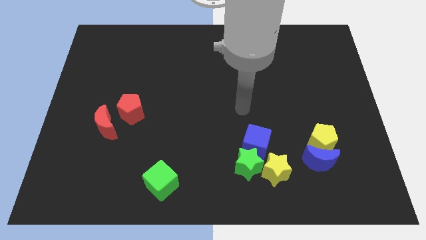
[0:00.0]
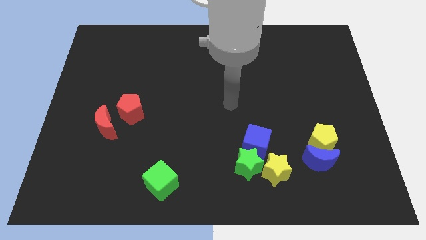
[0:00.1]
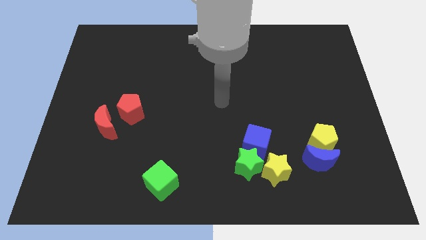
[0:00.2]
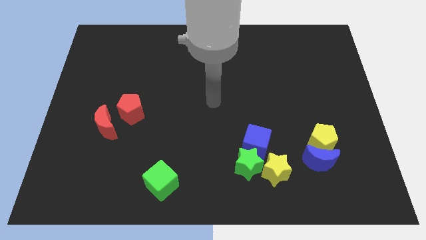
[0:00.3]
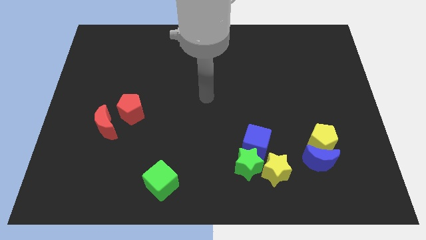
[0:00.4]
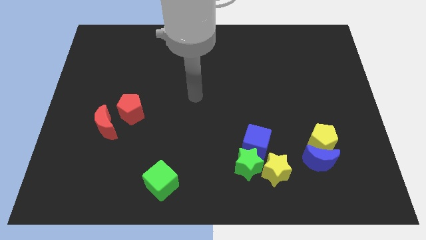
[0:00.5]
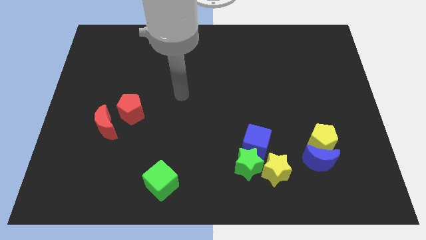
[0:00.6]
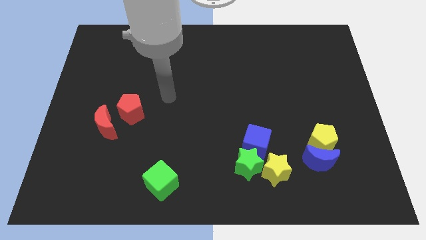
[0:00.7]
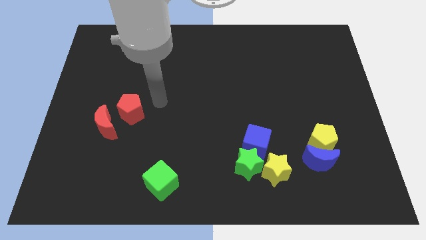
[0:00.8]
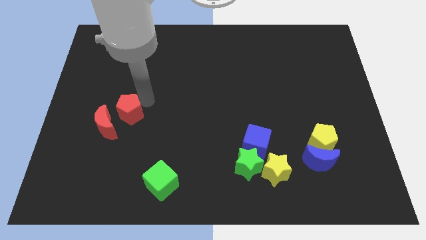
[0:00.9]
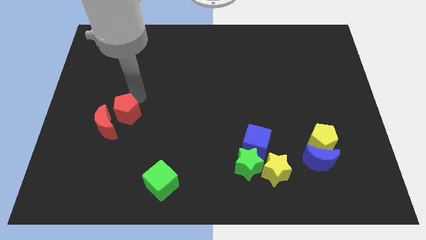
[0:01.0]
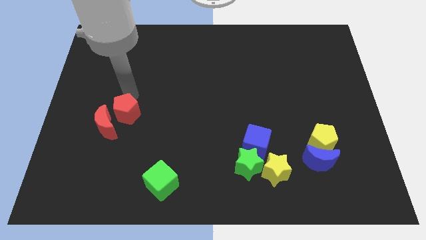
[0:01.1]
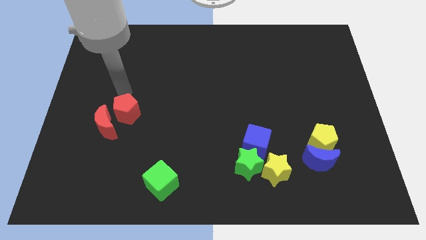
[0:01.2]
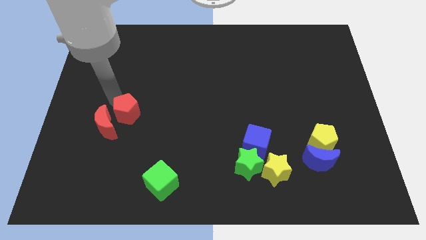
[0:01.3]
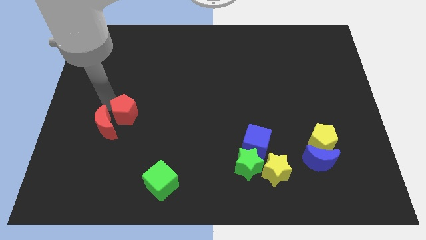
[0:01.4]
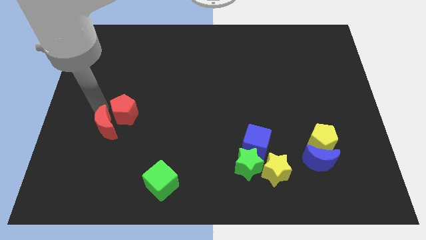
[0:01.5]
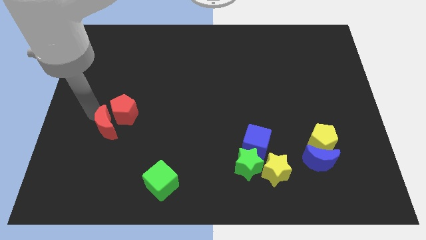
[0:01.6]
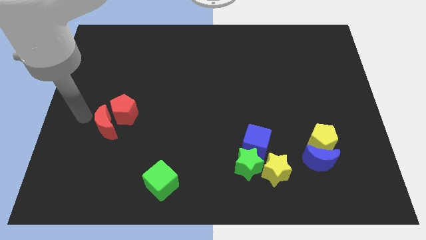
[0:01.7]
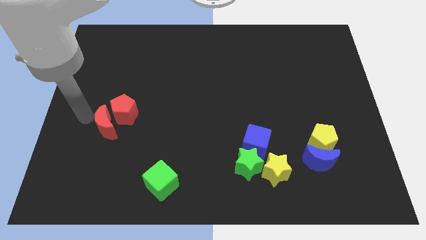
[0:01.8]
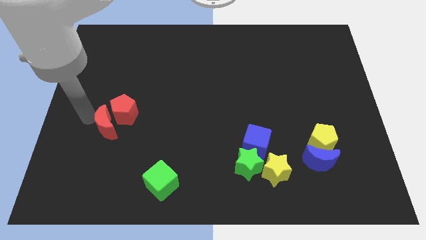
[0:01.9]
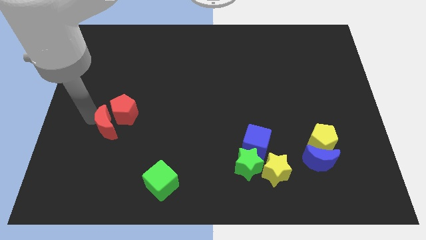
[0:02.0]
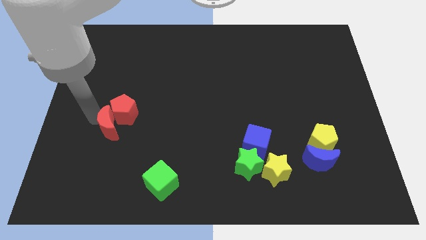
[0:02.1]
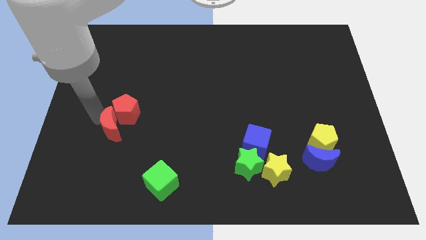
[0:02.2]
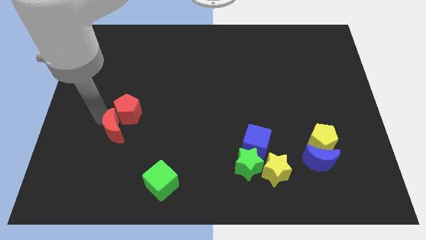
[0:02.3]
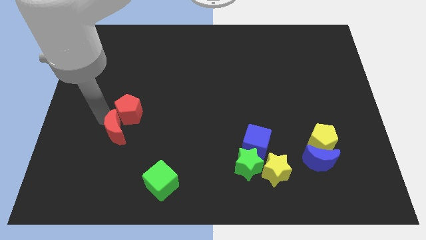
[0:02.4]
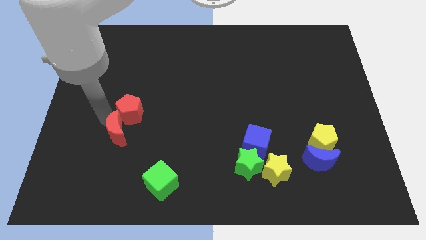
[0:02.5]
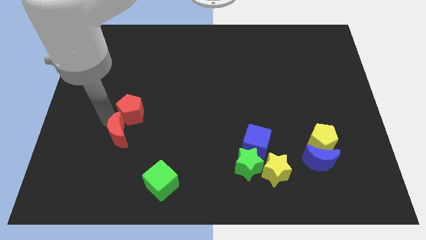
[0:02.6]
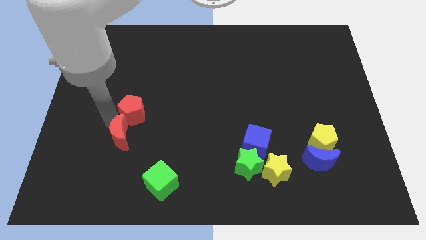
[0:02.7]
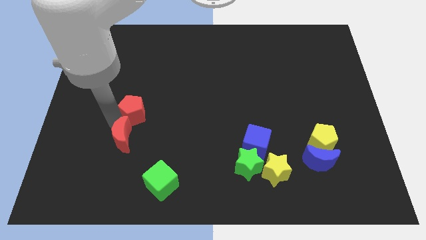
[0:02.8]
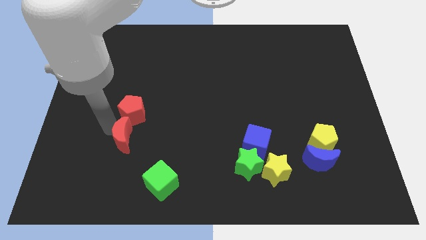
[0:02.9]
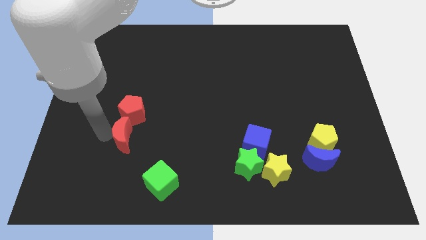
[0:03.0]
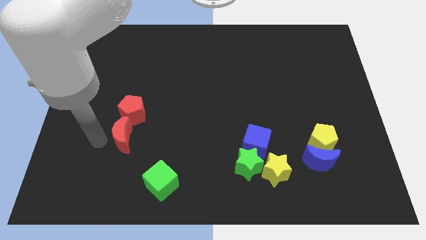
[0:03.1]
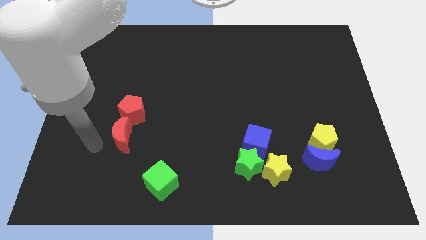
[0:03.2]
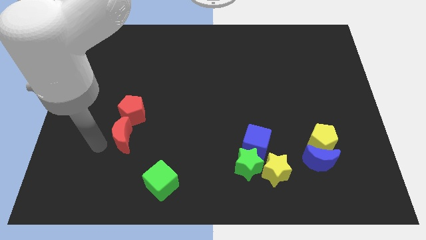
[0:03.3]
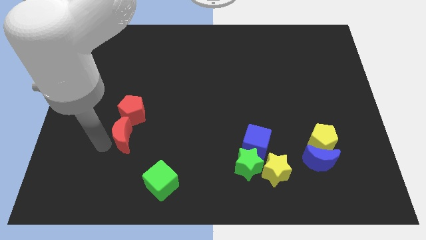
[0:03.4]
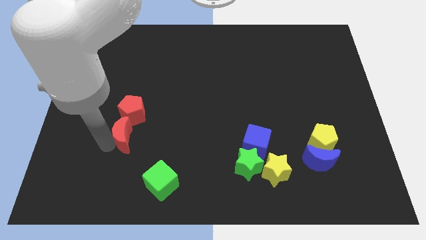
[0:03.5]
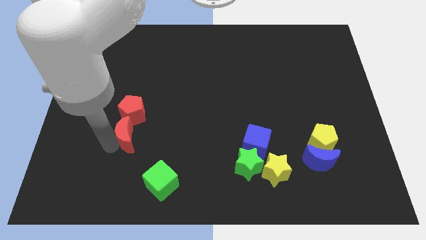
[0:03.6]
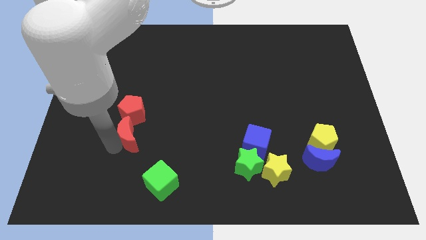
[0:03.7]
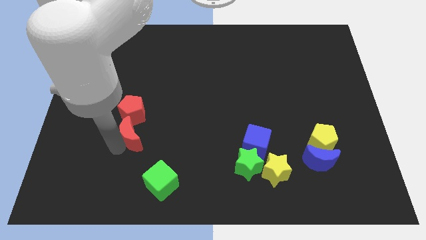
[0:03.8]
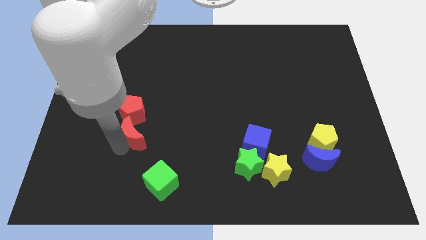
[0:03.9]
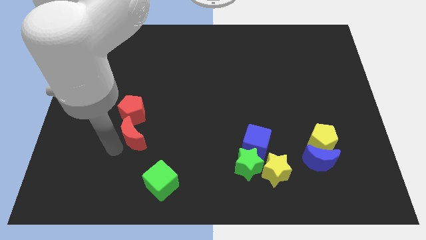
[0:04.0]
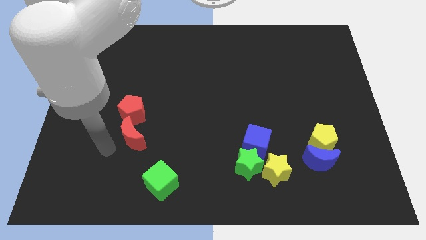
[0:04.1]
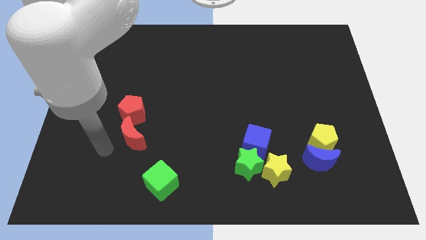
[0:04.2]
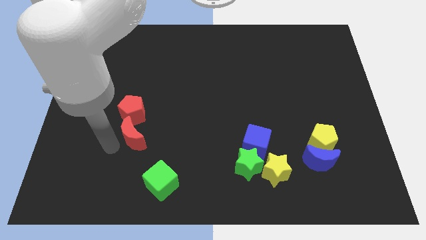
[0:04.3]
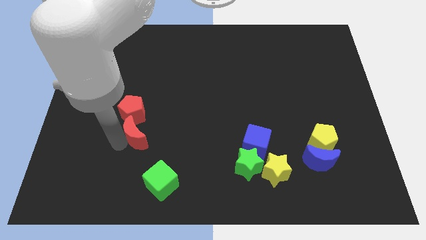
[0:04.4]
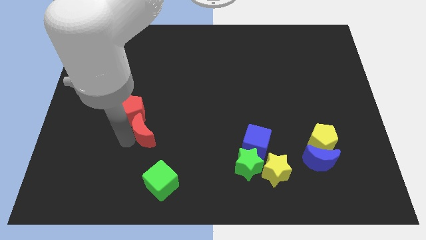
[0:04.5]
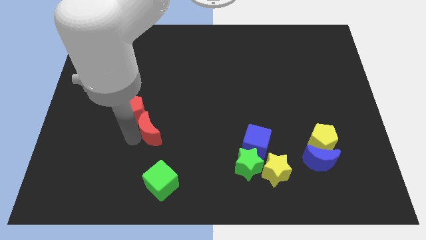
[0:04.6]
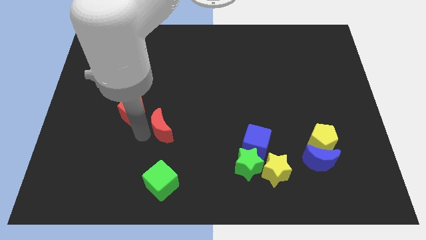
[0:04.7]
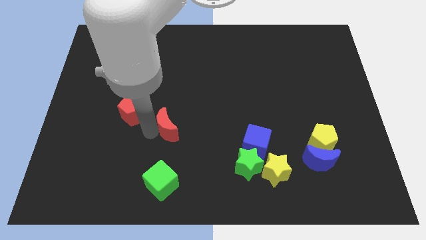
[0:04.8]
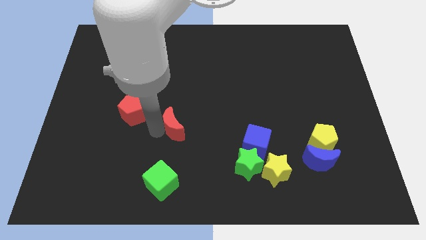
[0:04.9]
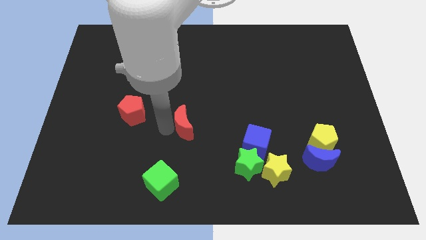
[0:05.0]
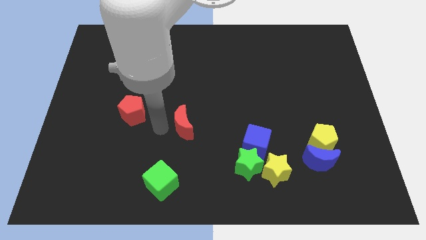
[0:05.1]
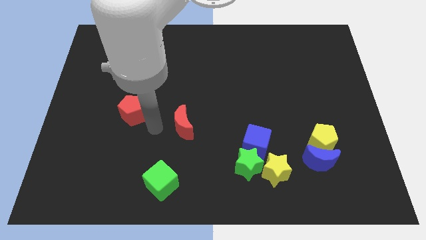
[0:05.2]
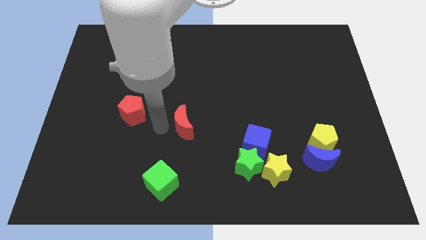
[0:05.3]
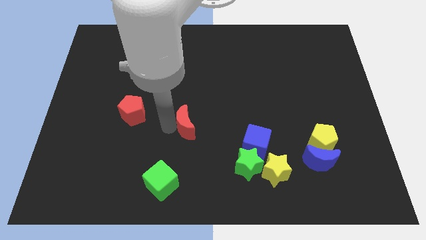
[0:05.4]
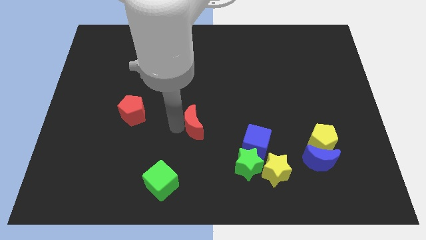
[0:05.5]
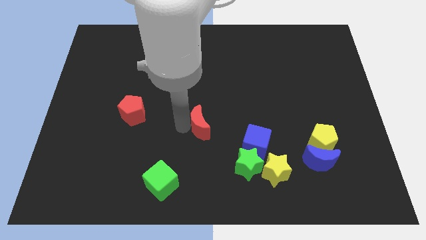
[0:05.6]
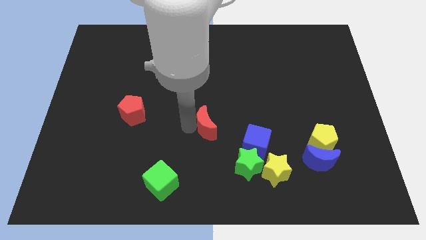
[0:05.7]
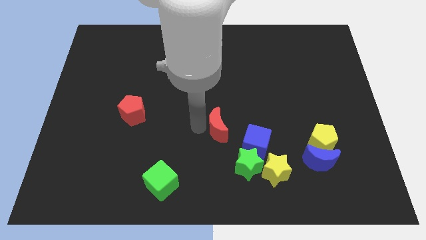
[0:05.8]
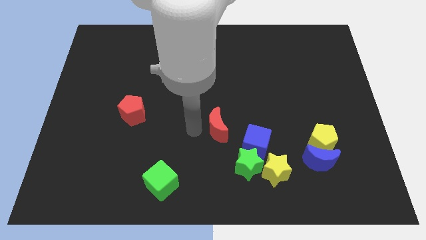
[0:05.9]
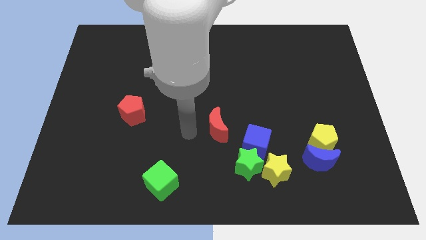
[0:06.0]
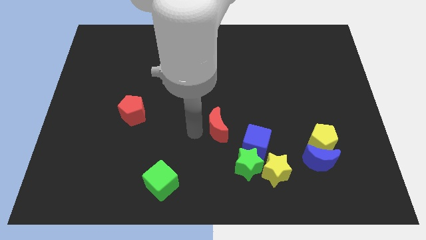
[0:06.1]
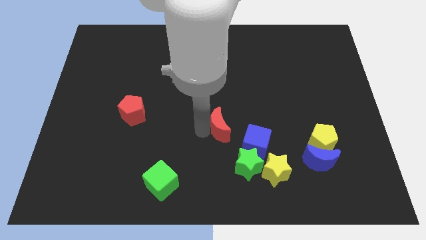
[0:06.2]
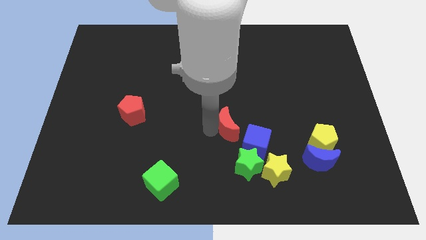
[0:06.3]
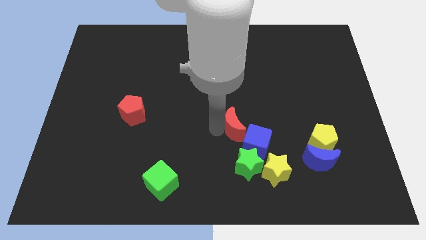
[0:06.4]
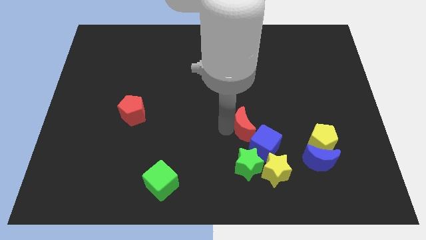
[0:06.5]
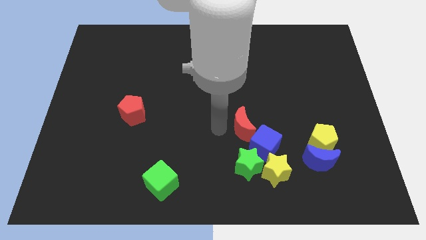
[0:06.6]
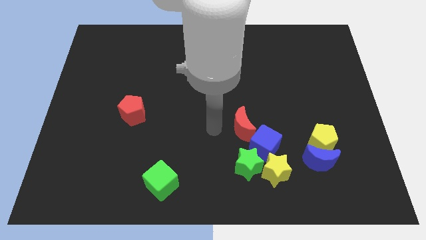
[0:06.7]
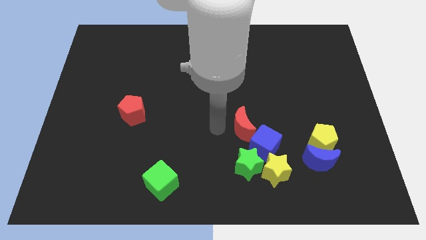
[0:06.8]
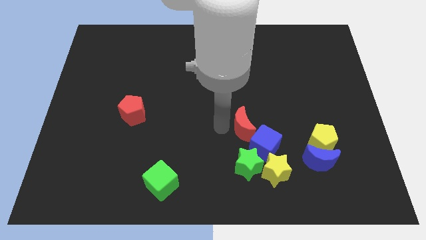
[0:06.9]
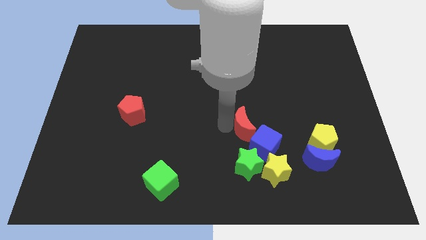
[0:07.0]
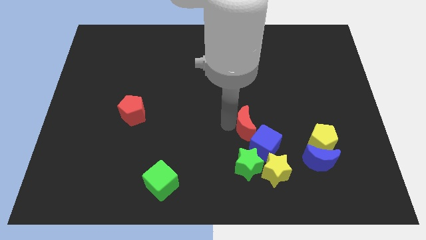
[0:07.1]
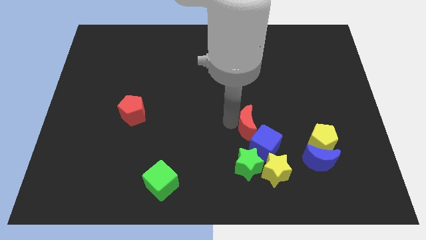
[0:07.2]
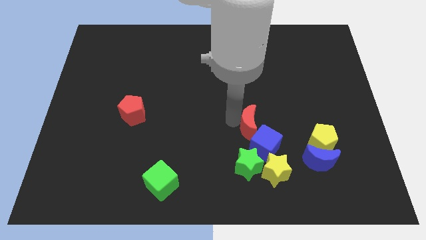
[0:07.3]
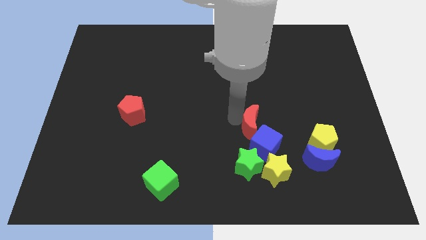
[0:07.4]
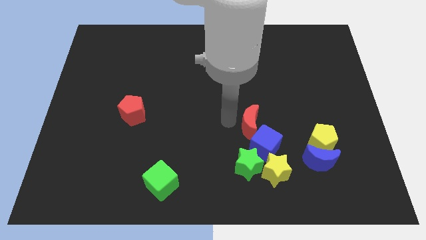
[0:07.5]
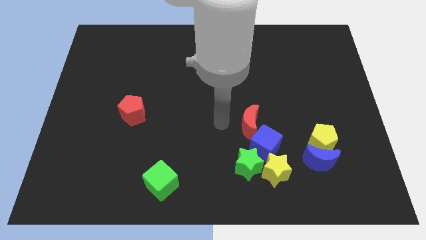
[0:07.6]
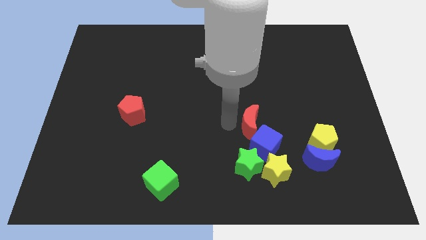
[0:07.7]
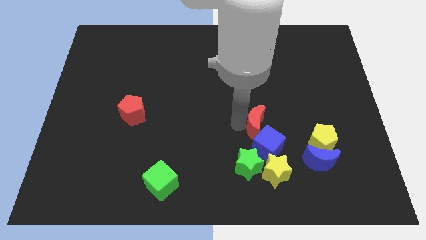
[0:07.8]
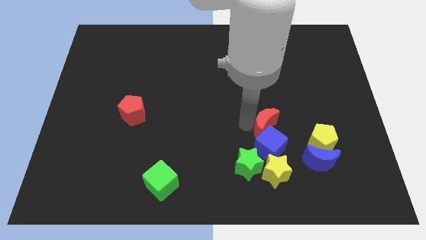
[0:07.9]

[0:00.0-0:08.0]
slide the red moon to the top right of the blue cube
